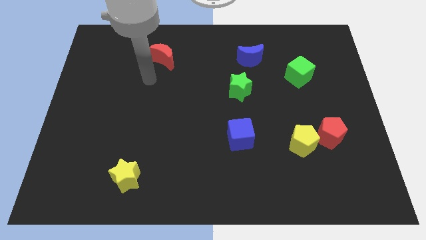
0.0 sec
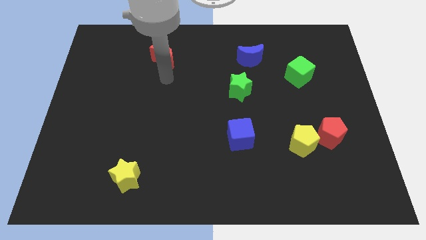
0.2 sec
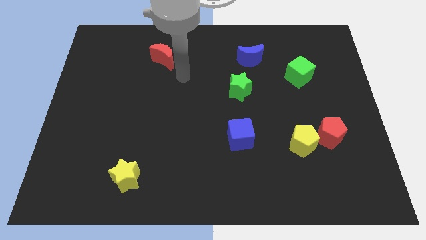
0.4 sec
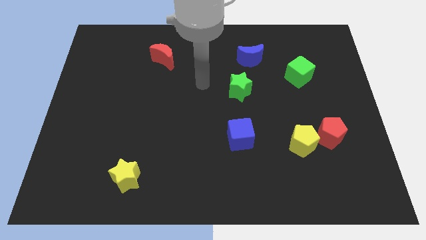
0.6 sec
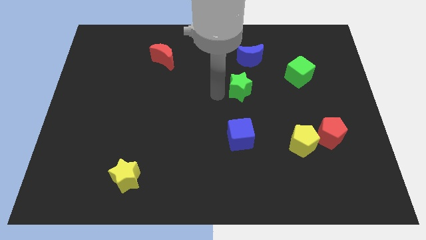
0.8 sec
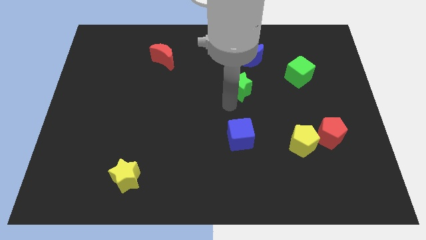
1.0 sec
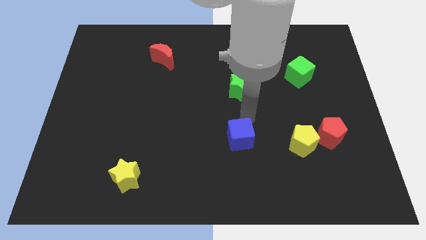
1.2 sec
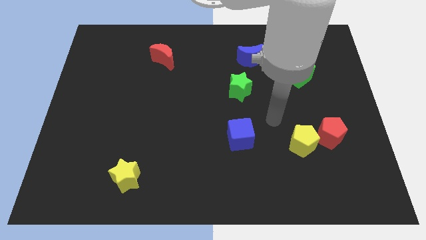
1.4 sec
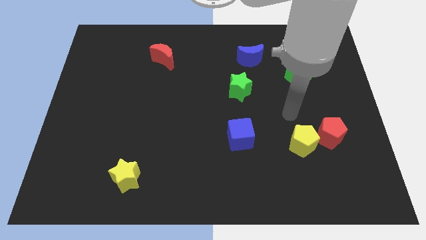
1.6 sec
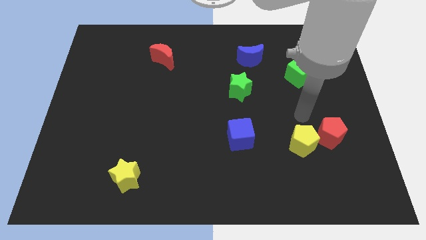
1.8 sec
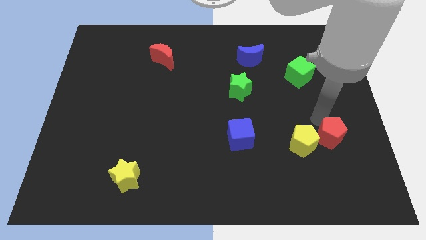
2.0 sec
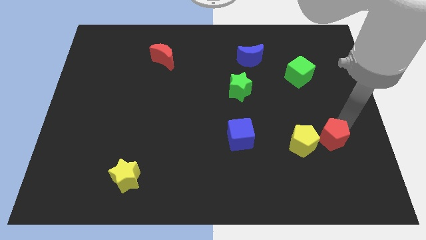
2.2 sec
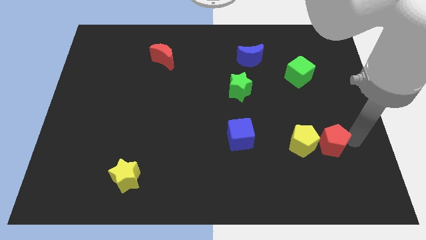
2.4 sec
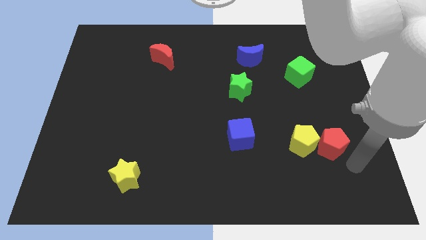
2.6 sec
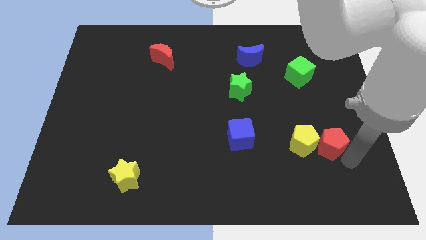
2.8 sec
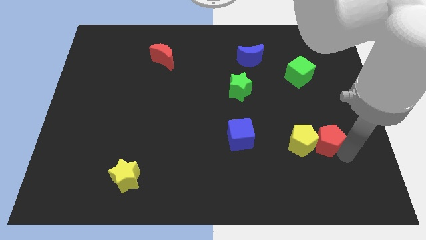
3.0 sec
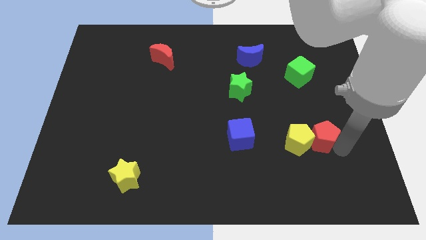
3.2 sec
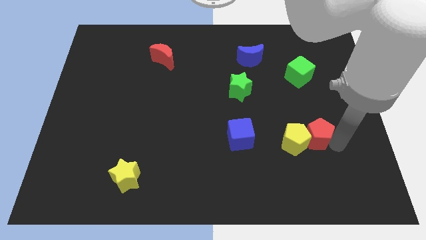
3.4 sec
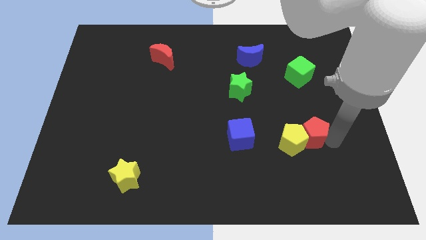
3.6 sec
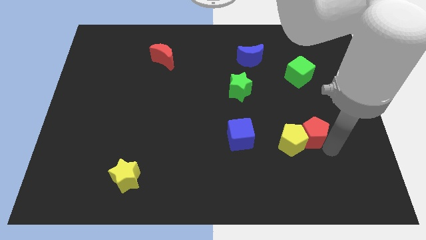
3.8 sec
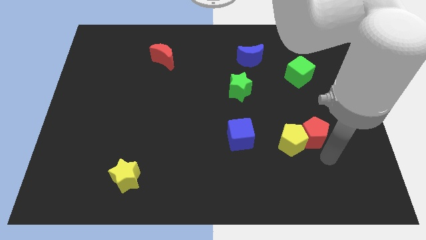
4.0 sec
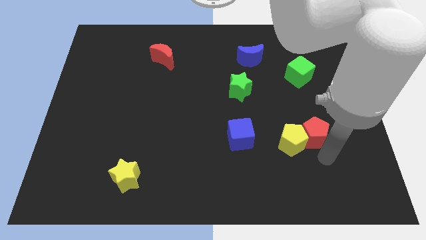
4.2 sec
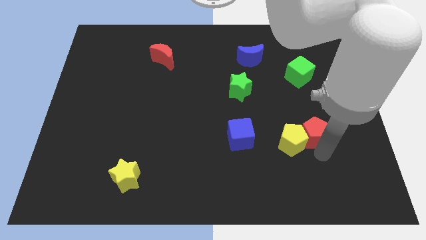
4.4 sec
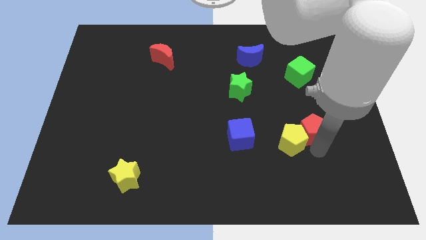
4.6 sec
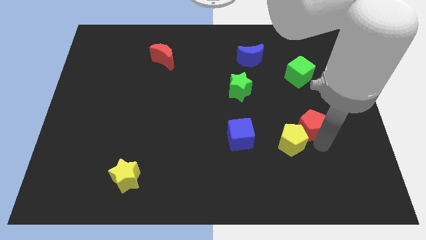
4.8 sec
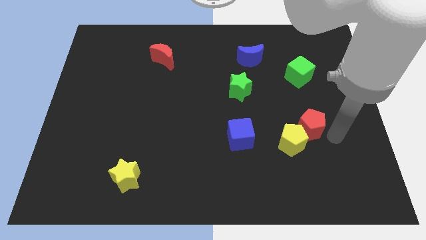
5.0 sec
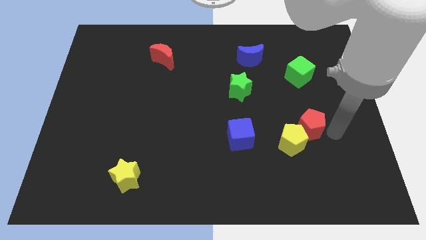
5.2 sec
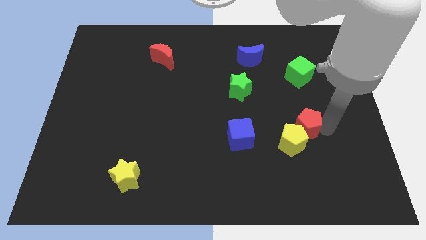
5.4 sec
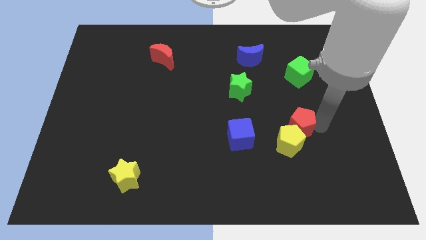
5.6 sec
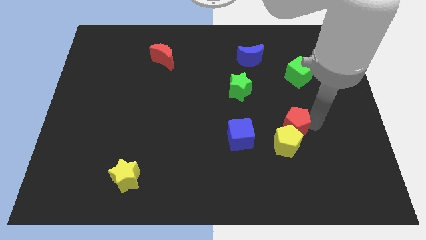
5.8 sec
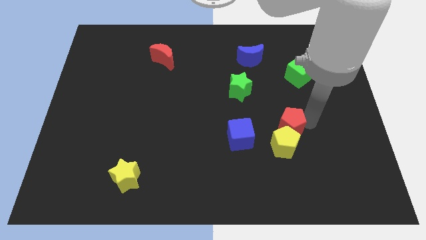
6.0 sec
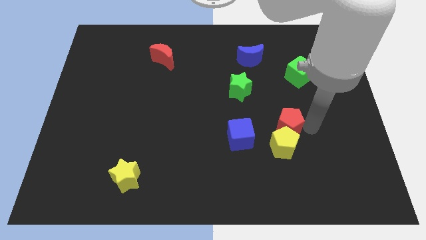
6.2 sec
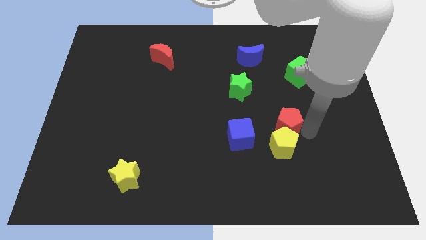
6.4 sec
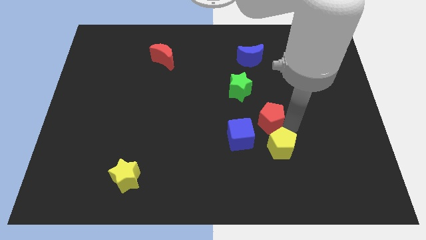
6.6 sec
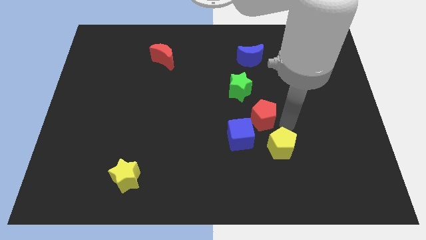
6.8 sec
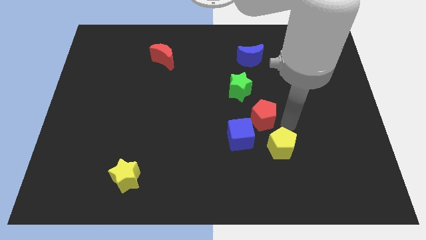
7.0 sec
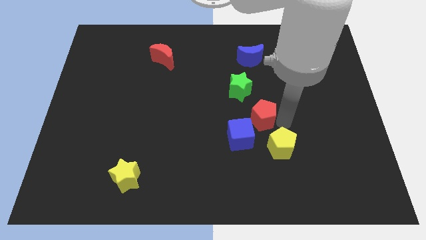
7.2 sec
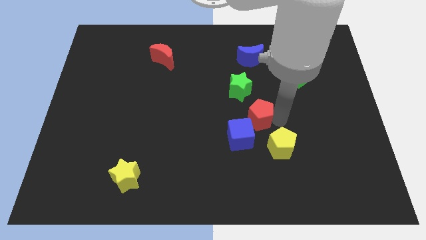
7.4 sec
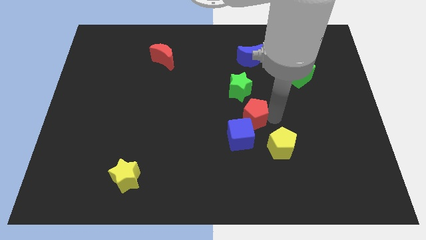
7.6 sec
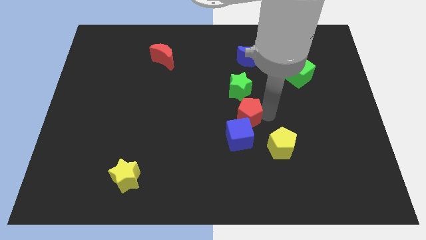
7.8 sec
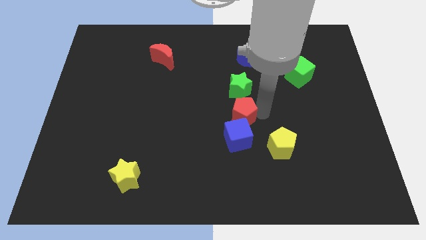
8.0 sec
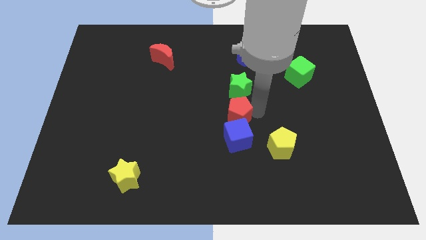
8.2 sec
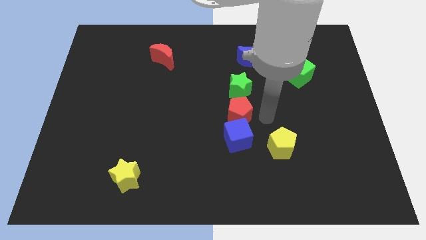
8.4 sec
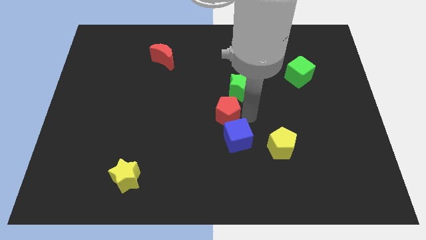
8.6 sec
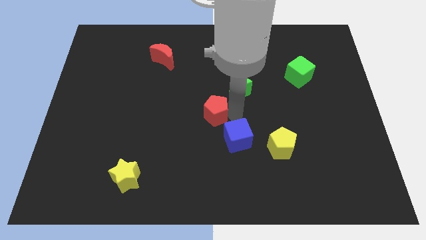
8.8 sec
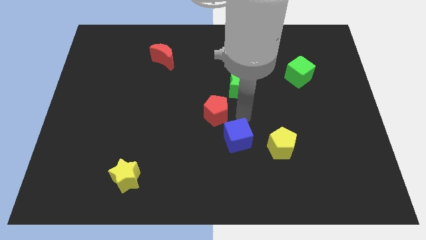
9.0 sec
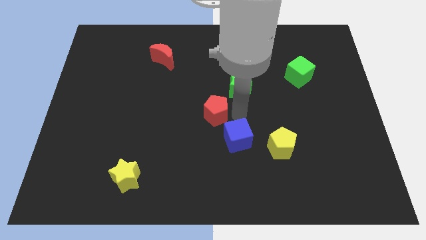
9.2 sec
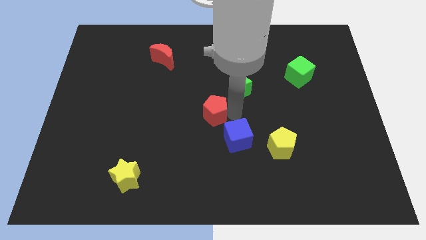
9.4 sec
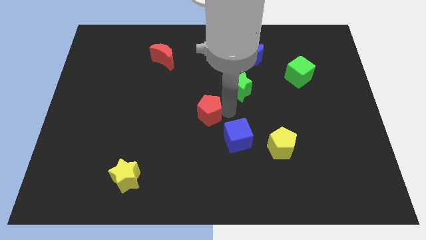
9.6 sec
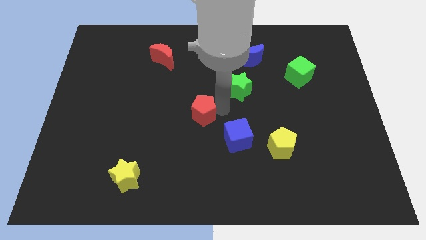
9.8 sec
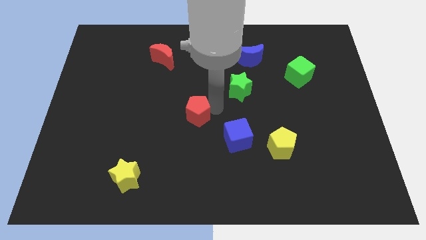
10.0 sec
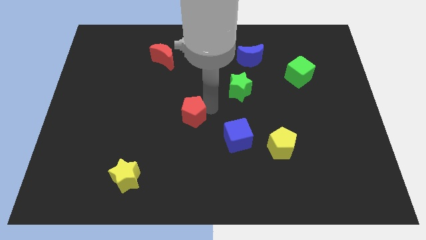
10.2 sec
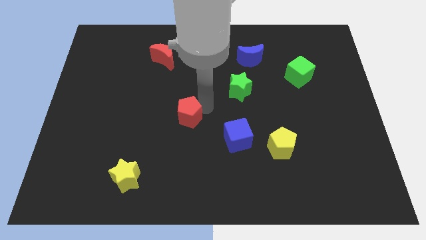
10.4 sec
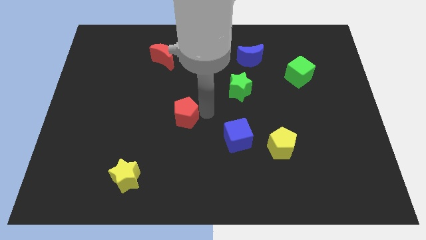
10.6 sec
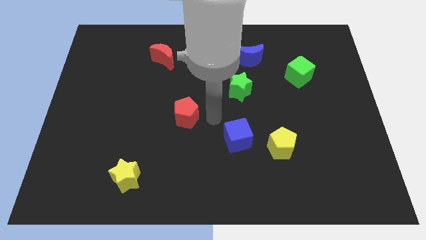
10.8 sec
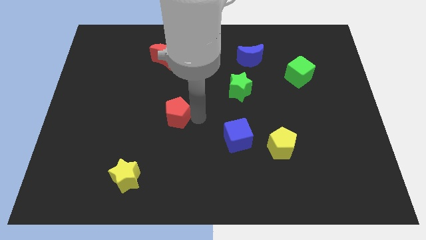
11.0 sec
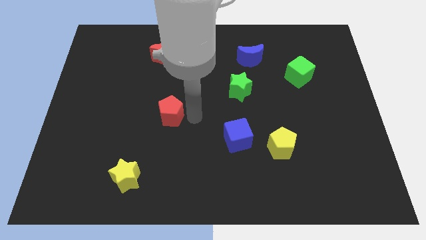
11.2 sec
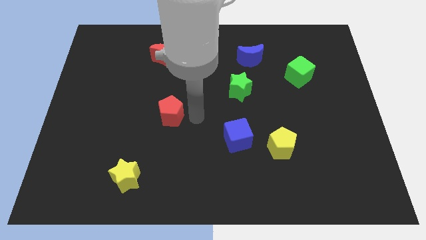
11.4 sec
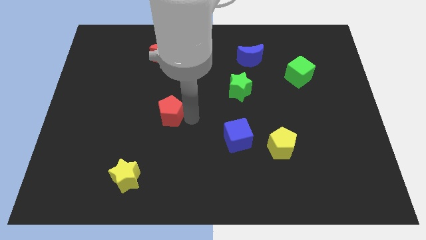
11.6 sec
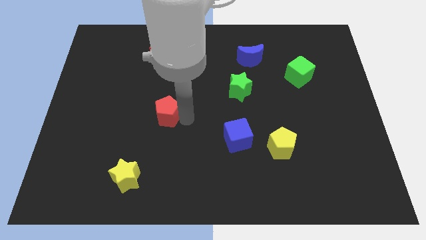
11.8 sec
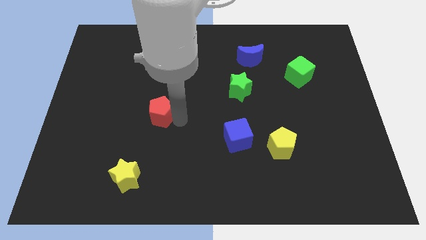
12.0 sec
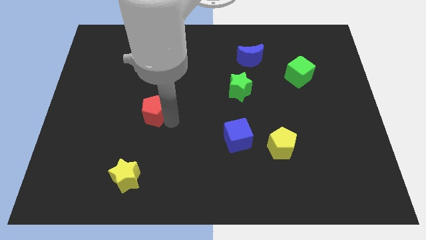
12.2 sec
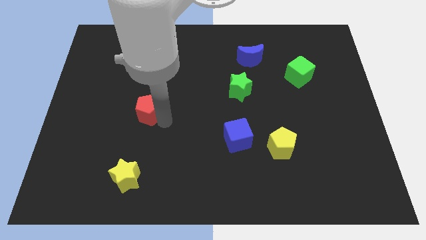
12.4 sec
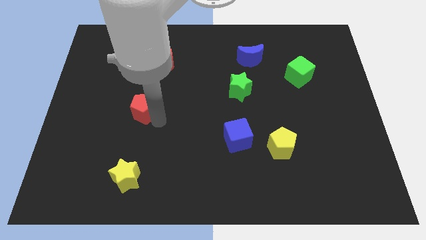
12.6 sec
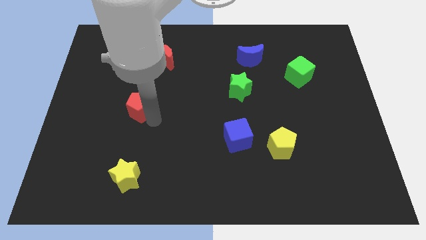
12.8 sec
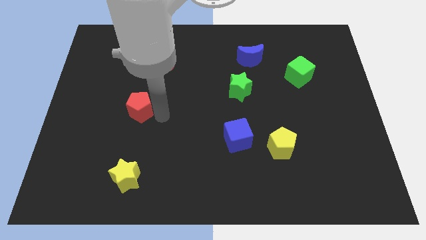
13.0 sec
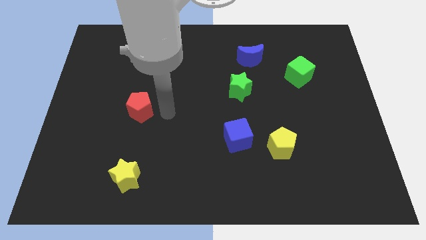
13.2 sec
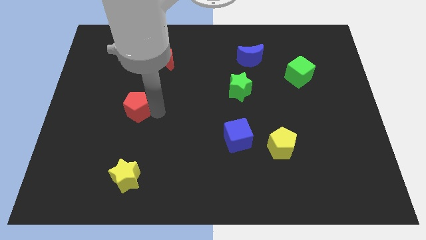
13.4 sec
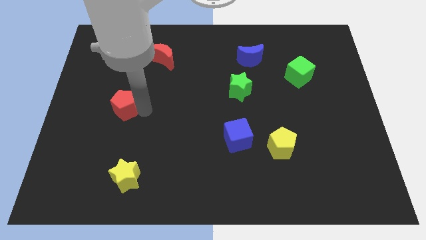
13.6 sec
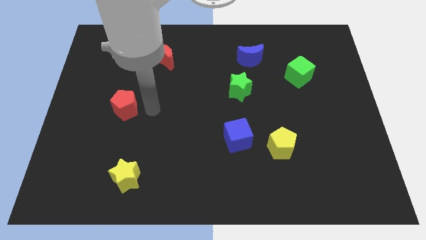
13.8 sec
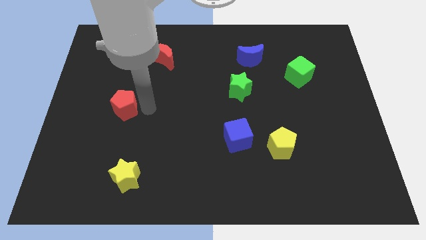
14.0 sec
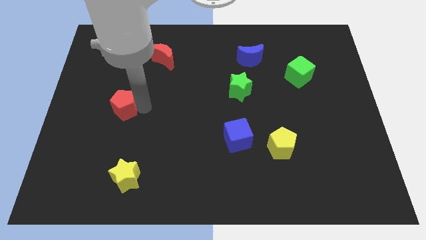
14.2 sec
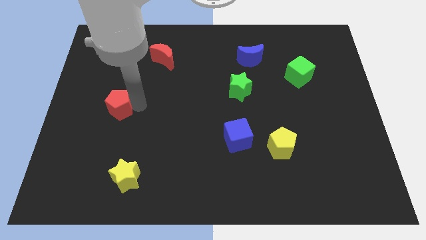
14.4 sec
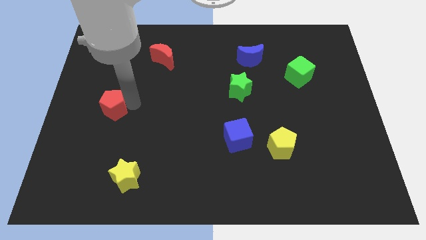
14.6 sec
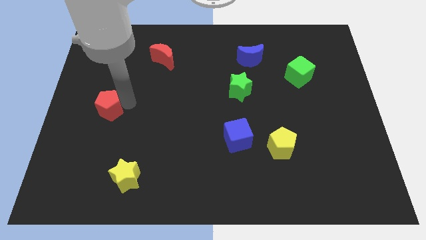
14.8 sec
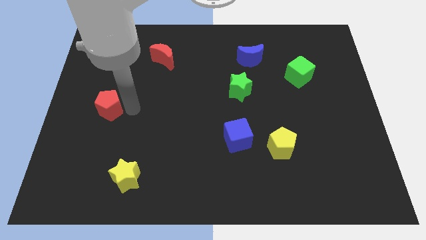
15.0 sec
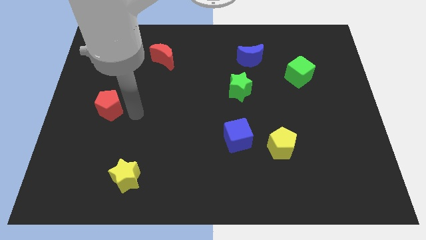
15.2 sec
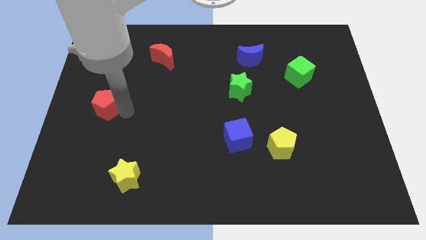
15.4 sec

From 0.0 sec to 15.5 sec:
slide the red pentagon to the left side
